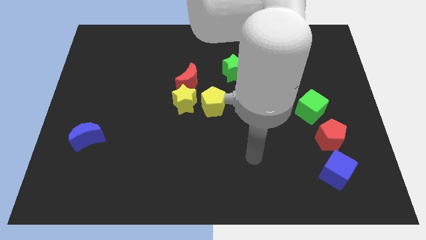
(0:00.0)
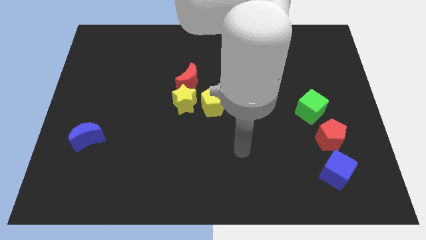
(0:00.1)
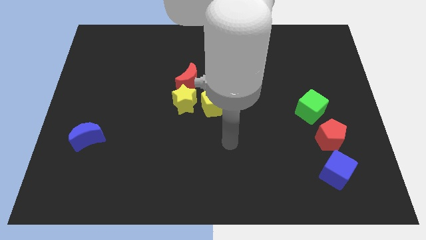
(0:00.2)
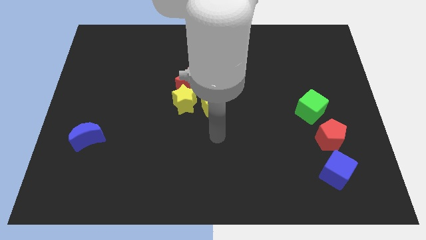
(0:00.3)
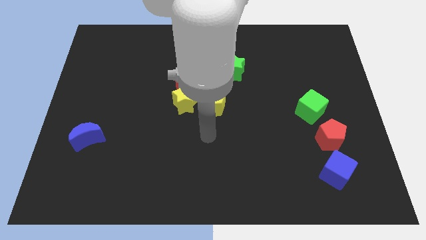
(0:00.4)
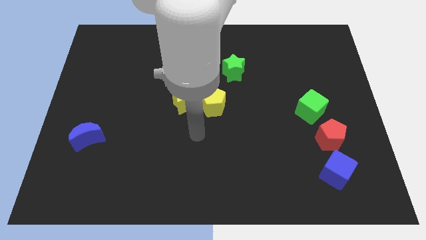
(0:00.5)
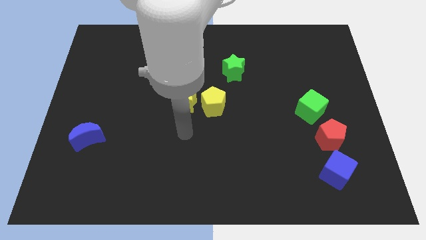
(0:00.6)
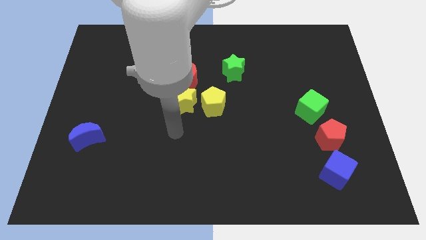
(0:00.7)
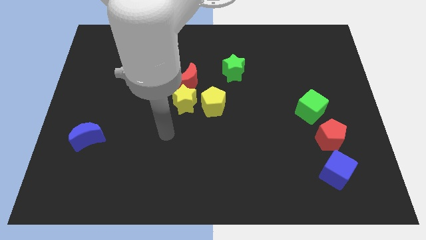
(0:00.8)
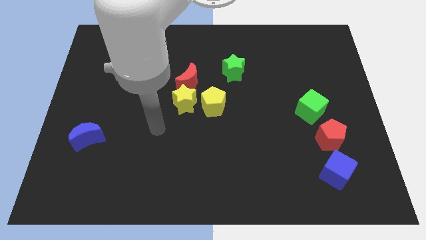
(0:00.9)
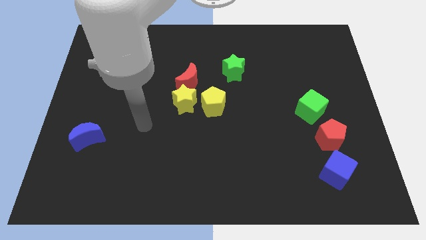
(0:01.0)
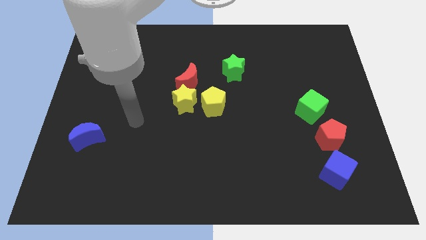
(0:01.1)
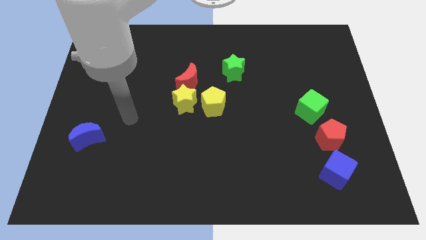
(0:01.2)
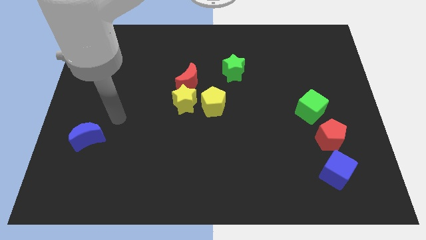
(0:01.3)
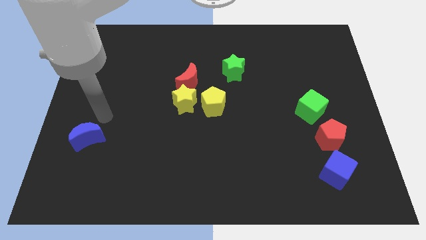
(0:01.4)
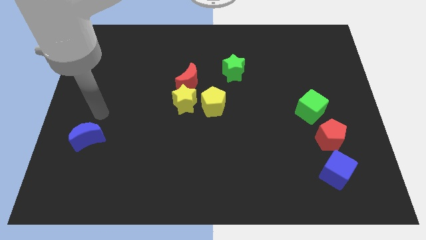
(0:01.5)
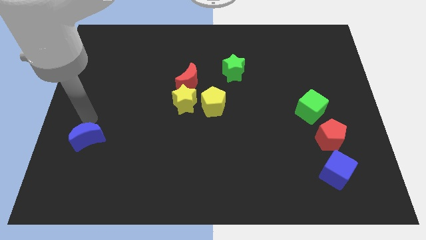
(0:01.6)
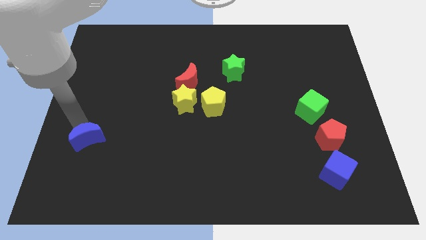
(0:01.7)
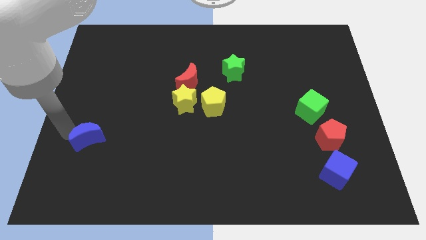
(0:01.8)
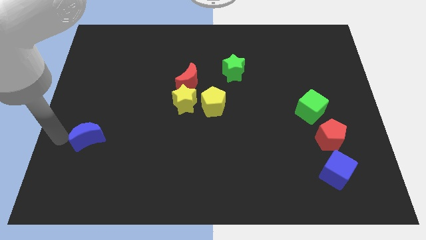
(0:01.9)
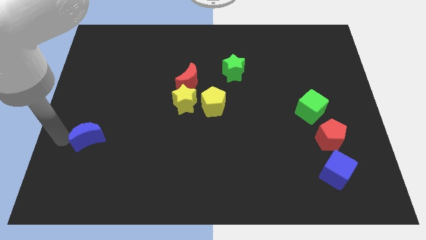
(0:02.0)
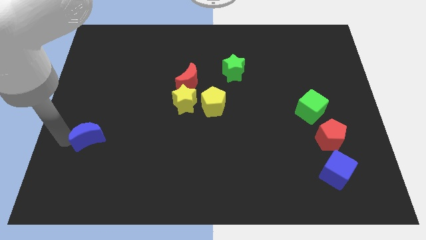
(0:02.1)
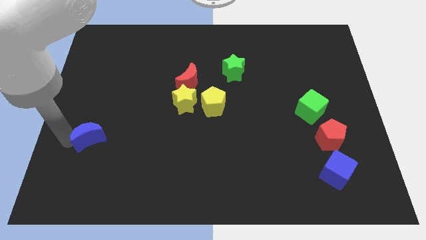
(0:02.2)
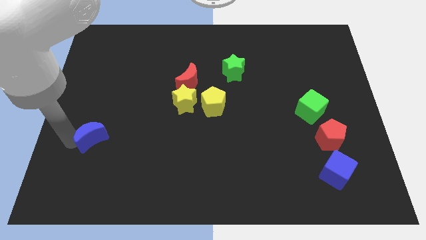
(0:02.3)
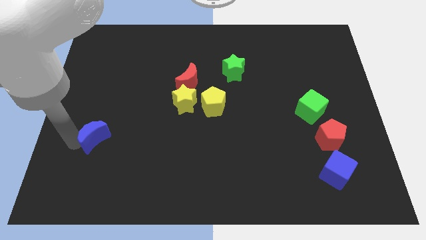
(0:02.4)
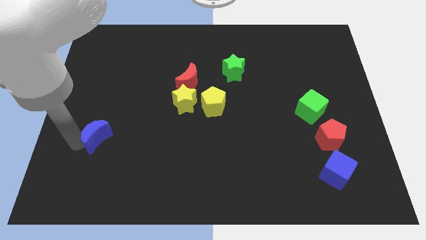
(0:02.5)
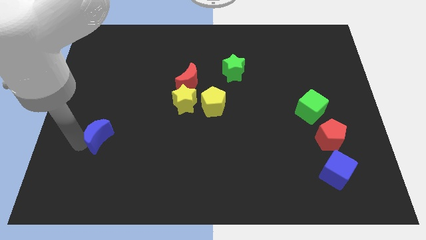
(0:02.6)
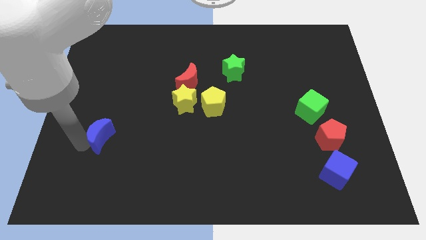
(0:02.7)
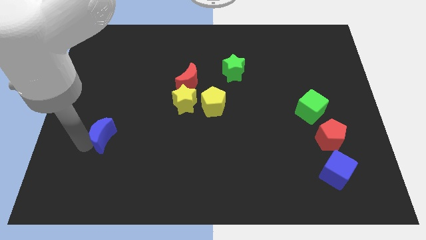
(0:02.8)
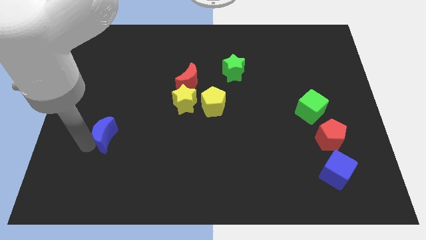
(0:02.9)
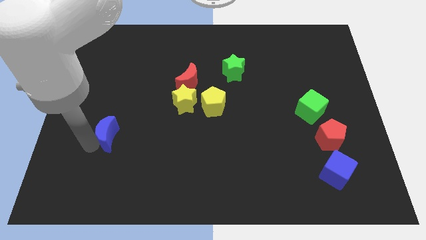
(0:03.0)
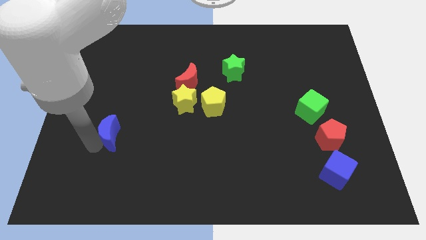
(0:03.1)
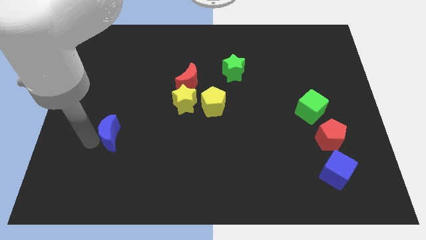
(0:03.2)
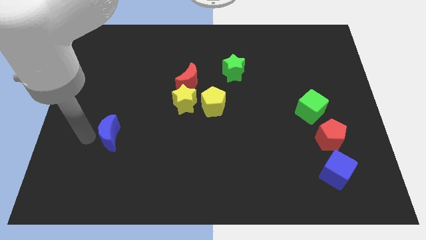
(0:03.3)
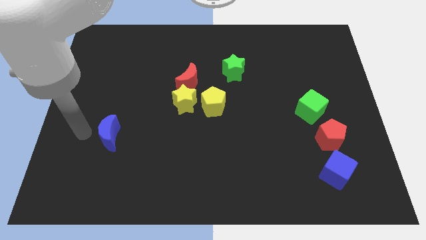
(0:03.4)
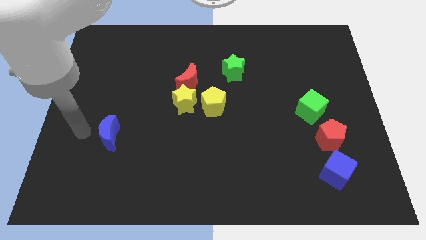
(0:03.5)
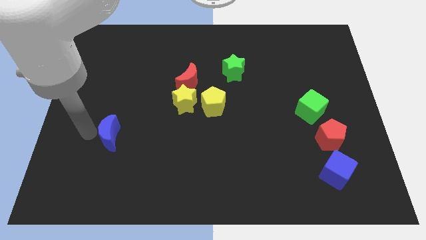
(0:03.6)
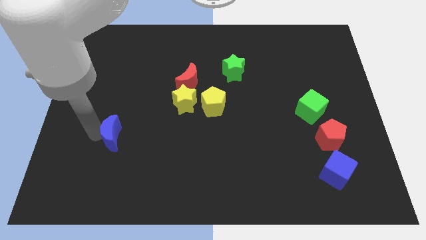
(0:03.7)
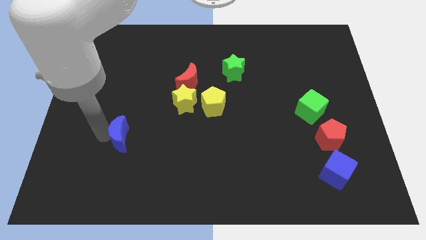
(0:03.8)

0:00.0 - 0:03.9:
slightly slide the blue moon right

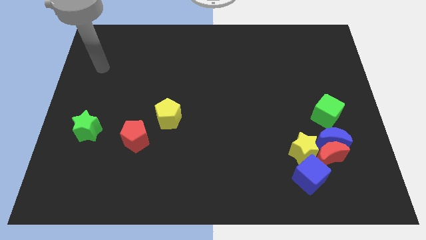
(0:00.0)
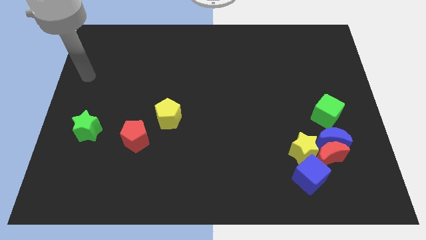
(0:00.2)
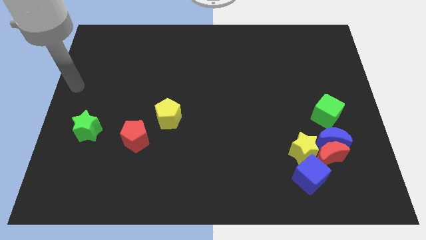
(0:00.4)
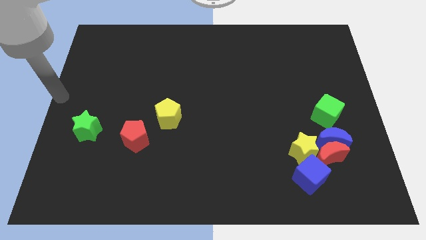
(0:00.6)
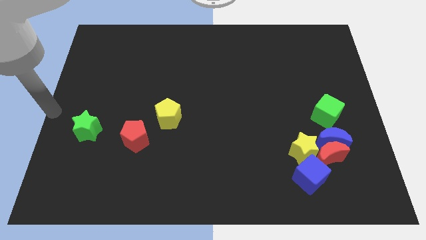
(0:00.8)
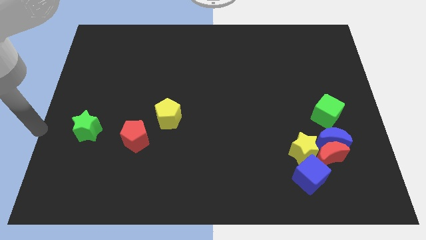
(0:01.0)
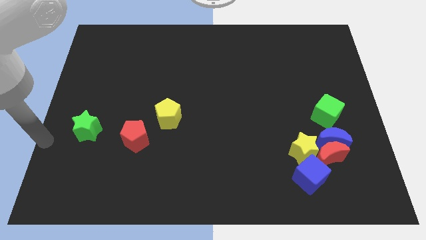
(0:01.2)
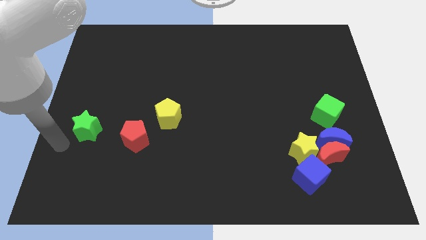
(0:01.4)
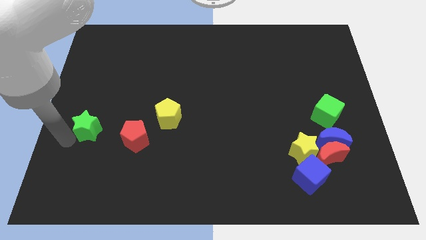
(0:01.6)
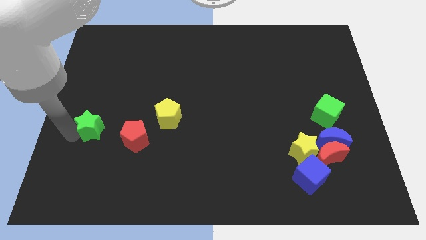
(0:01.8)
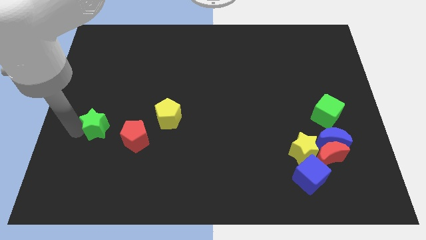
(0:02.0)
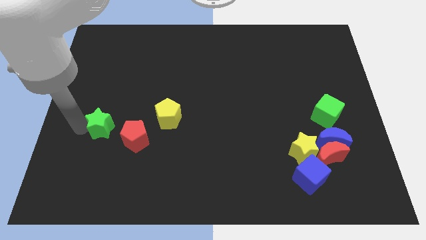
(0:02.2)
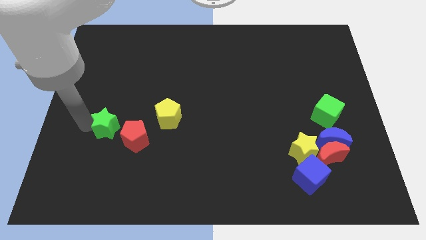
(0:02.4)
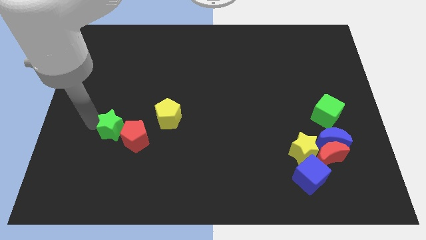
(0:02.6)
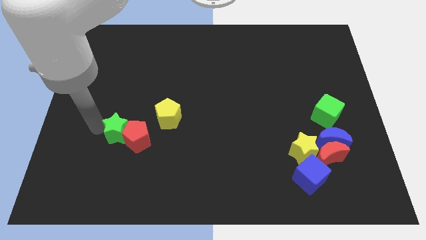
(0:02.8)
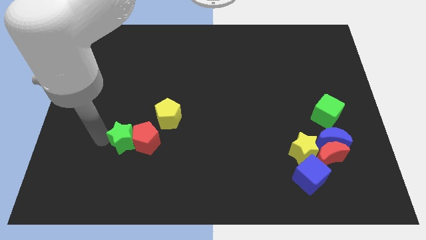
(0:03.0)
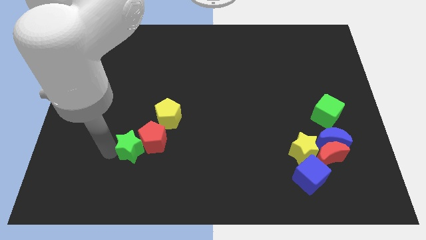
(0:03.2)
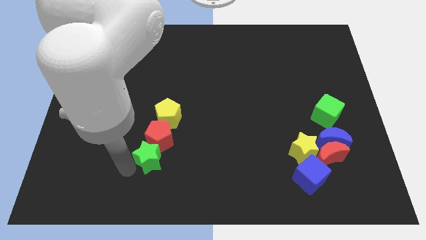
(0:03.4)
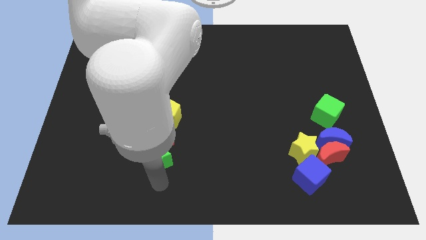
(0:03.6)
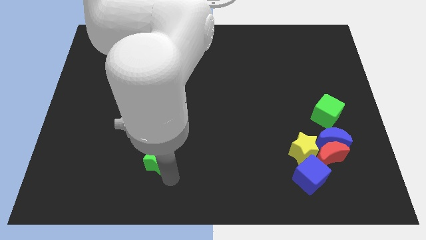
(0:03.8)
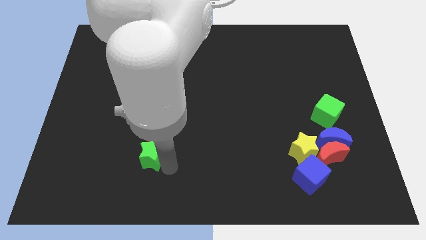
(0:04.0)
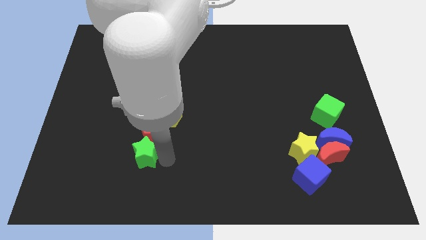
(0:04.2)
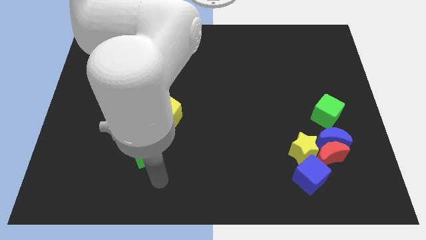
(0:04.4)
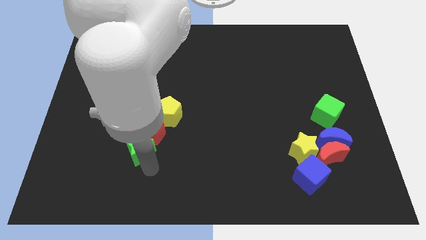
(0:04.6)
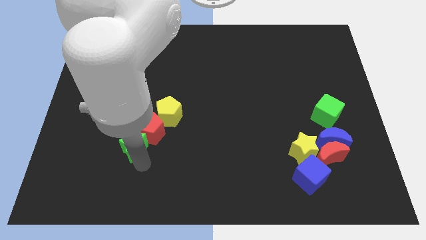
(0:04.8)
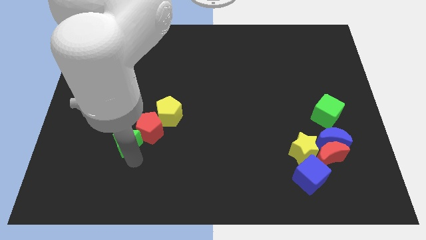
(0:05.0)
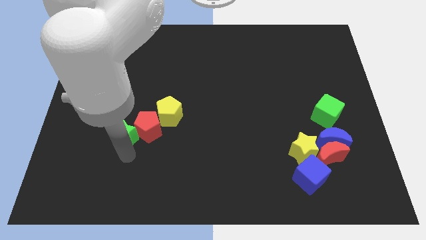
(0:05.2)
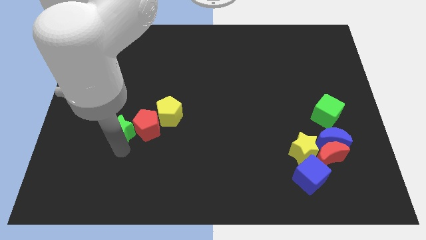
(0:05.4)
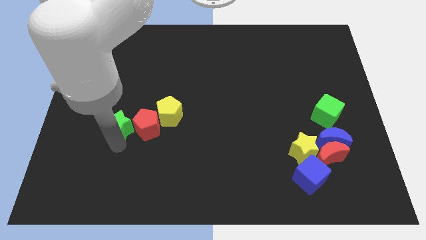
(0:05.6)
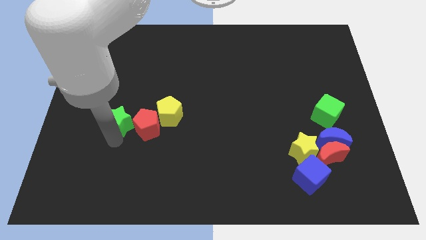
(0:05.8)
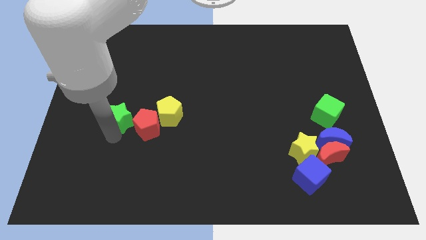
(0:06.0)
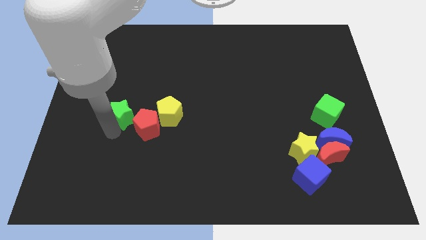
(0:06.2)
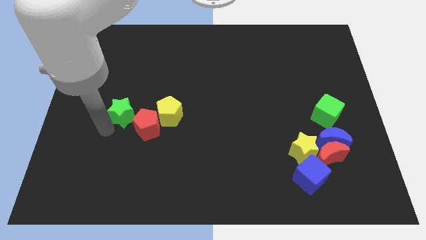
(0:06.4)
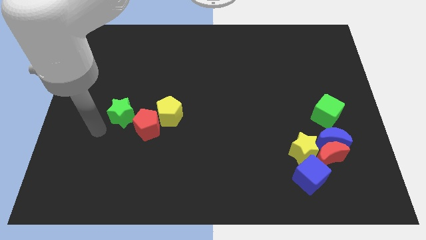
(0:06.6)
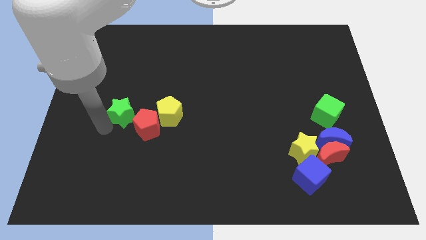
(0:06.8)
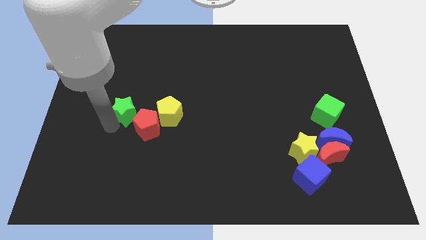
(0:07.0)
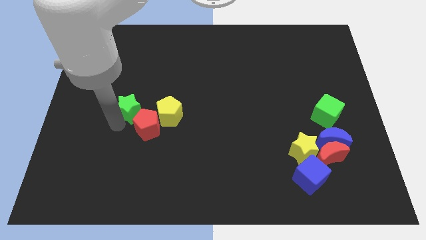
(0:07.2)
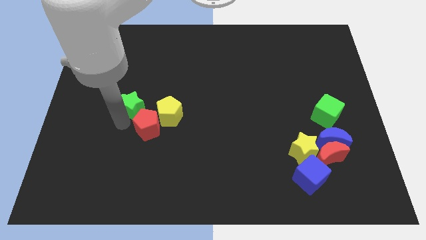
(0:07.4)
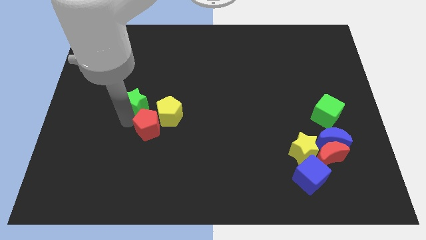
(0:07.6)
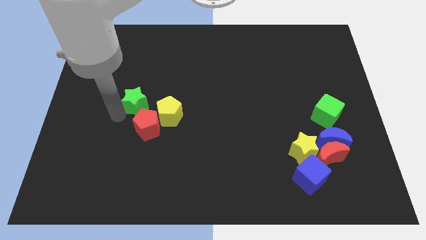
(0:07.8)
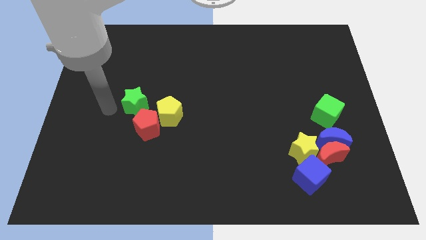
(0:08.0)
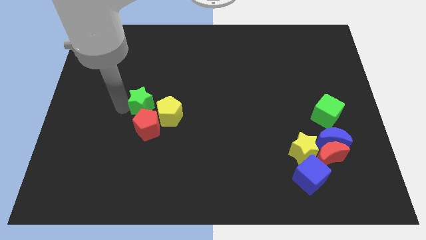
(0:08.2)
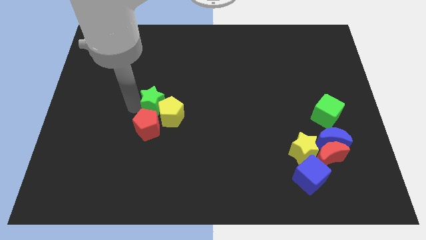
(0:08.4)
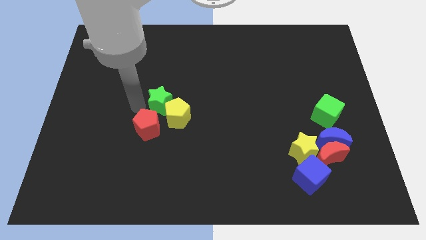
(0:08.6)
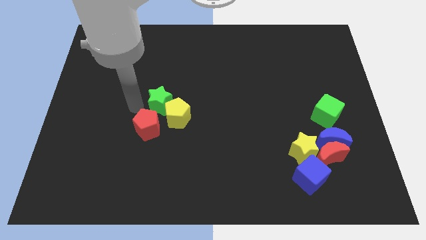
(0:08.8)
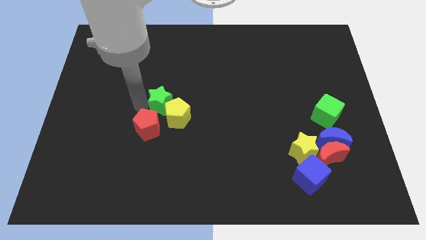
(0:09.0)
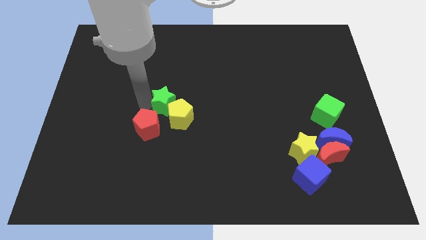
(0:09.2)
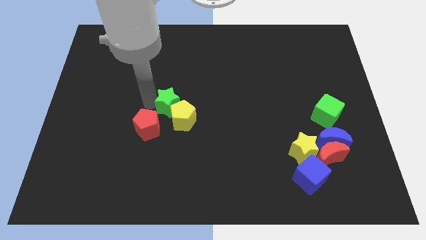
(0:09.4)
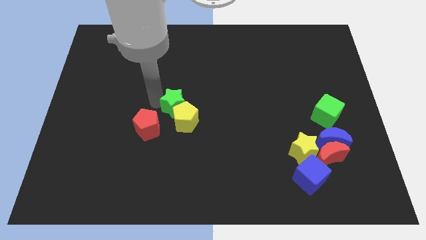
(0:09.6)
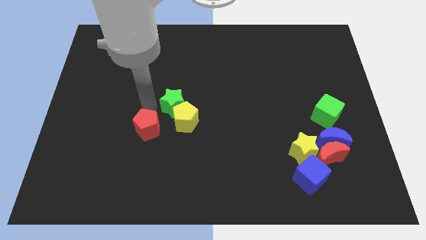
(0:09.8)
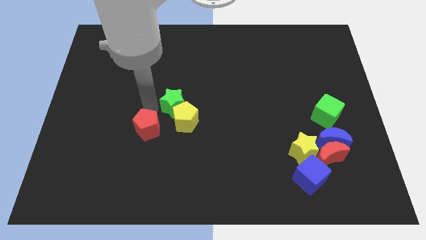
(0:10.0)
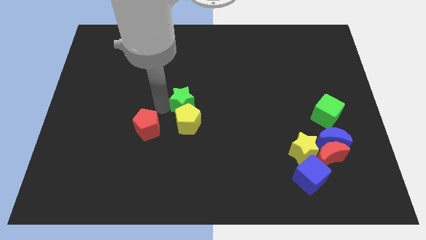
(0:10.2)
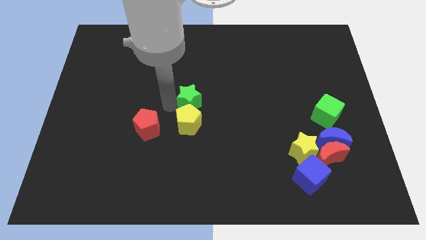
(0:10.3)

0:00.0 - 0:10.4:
push the green star to the right
